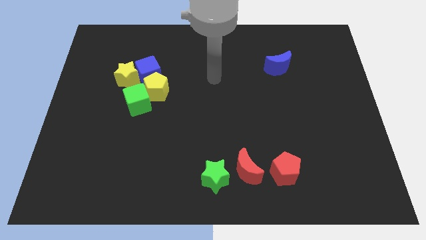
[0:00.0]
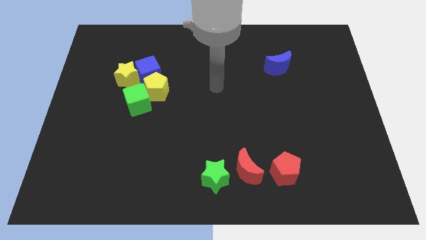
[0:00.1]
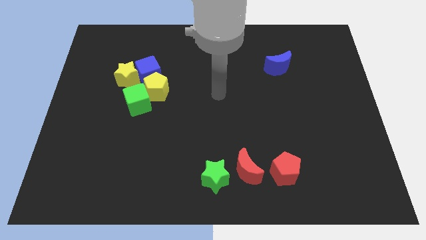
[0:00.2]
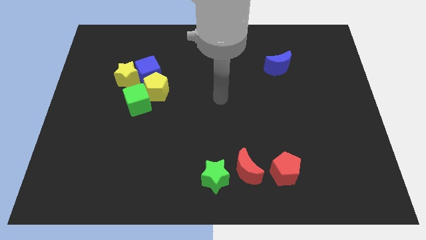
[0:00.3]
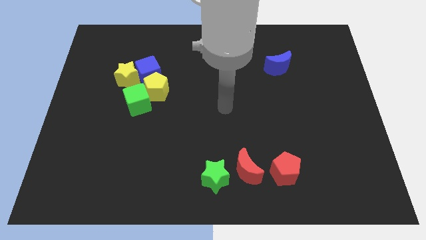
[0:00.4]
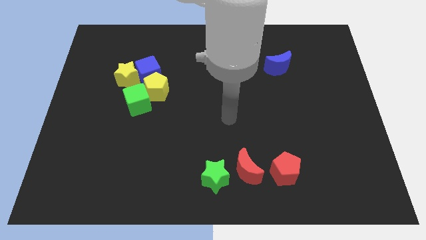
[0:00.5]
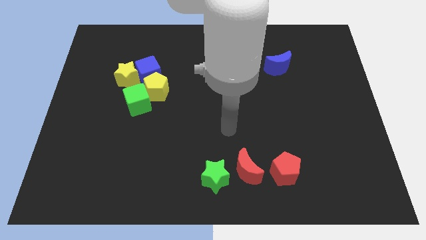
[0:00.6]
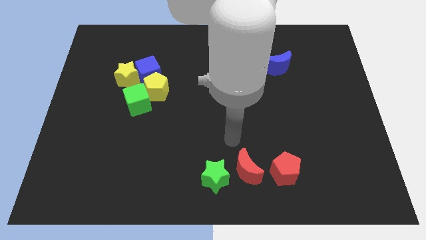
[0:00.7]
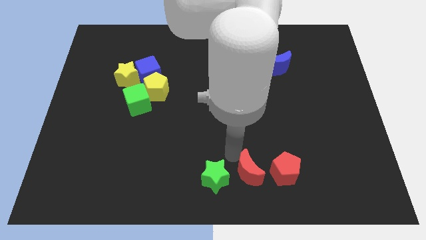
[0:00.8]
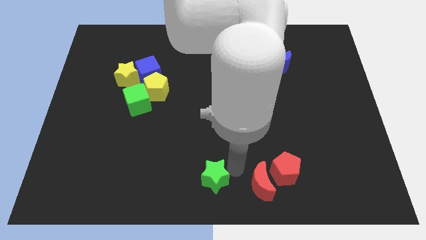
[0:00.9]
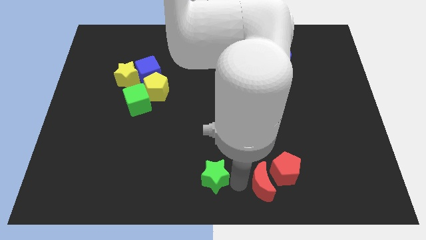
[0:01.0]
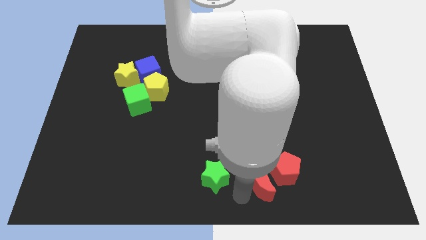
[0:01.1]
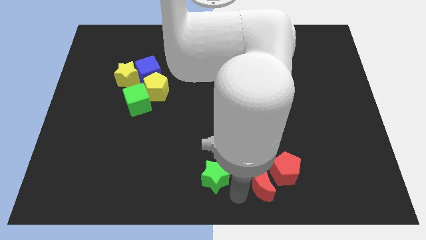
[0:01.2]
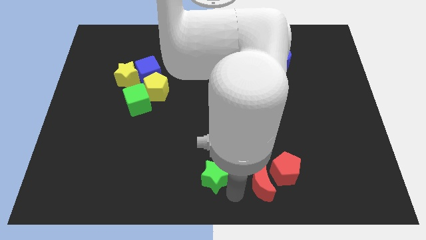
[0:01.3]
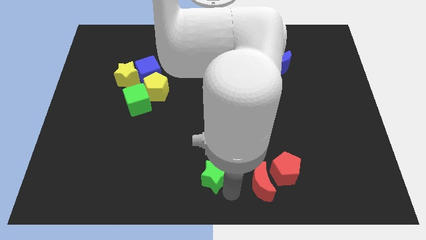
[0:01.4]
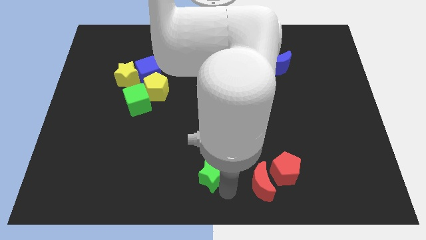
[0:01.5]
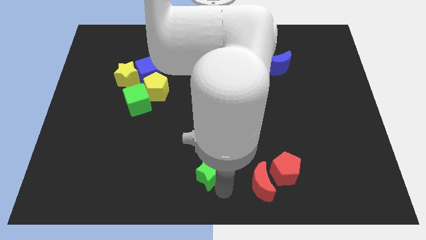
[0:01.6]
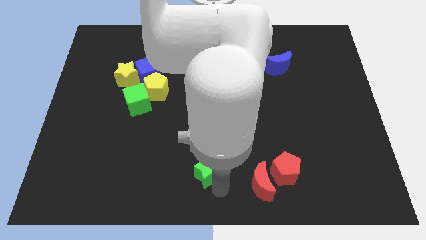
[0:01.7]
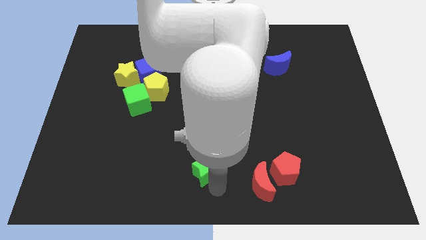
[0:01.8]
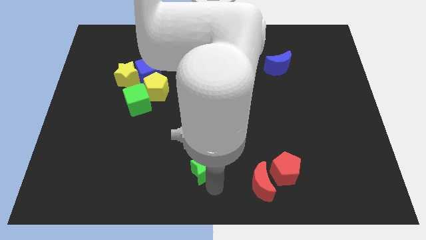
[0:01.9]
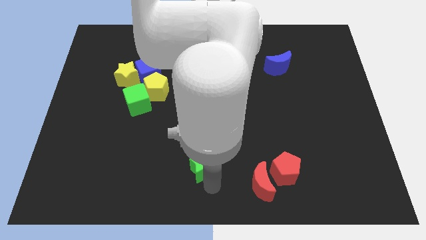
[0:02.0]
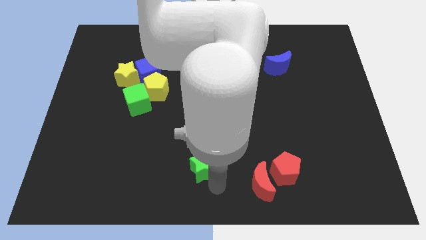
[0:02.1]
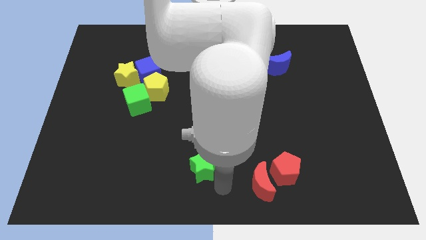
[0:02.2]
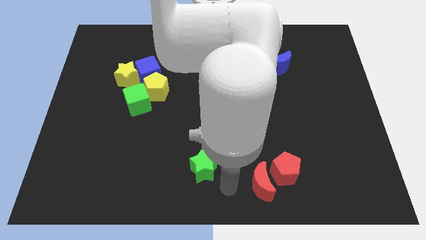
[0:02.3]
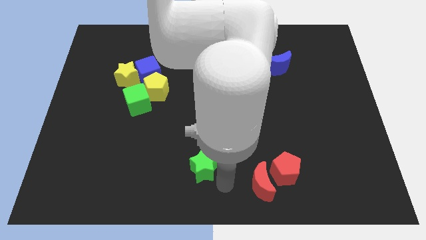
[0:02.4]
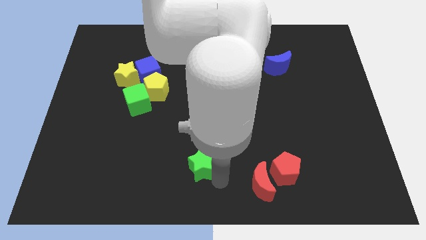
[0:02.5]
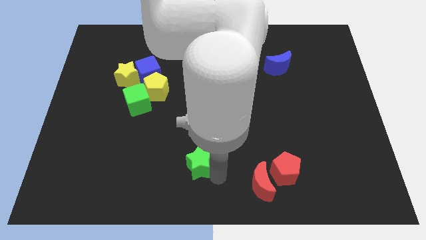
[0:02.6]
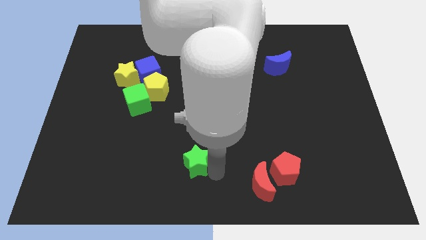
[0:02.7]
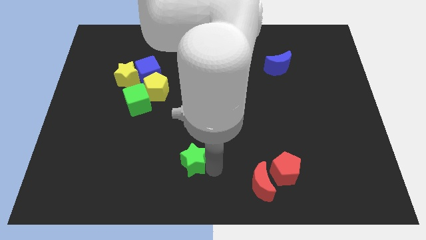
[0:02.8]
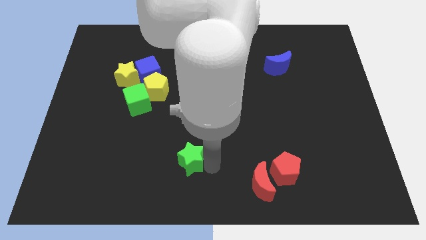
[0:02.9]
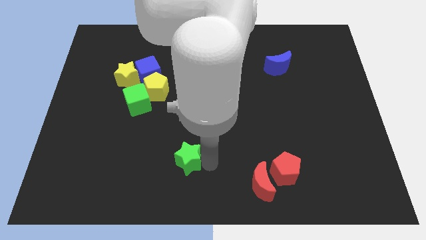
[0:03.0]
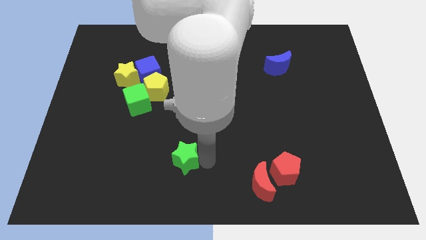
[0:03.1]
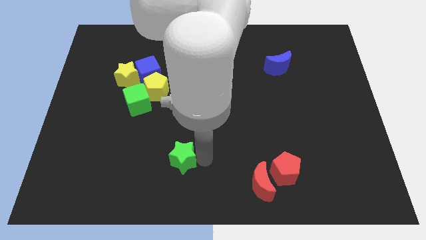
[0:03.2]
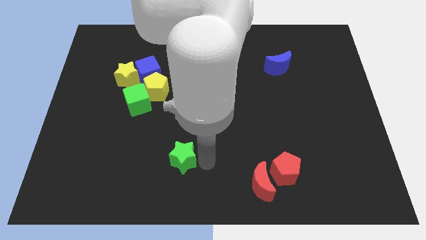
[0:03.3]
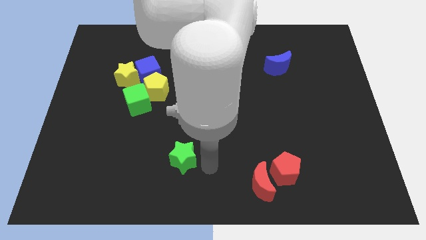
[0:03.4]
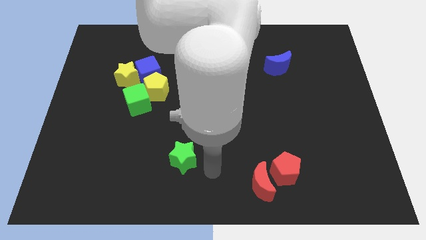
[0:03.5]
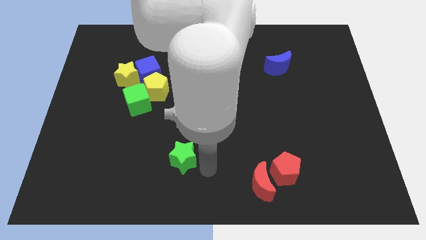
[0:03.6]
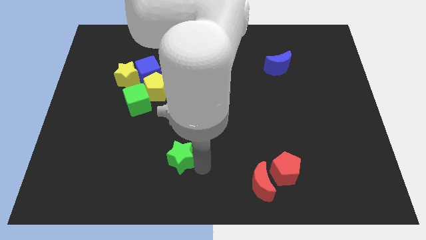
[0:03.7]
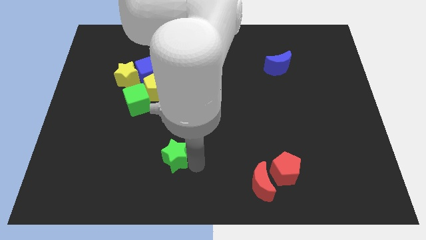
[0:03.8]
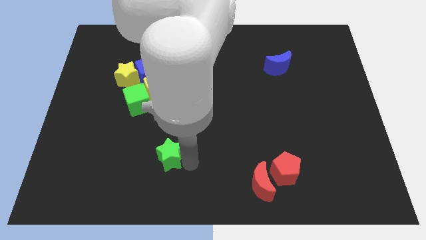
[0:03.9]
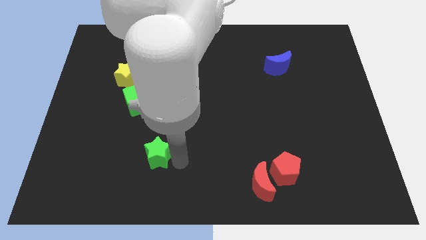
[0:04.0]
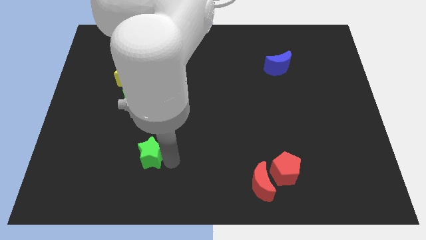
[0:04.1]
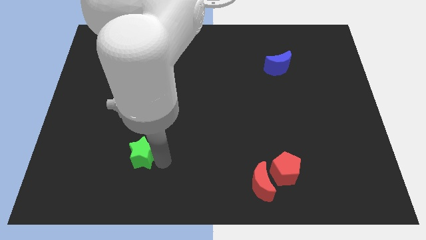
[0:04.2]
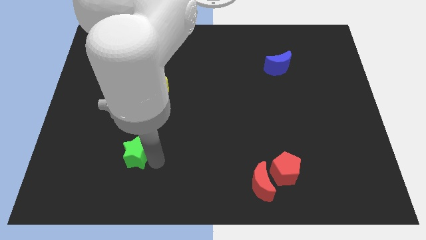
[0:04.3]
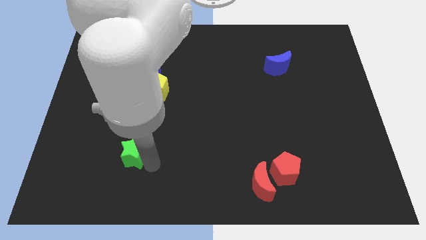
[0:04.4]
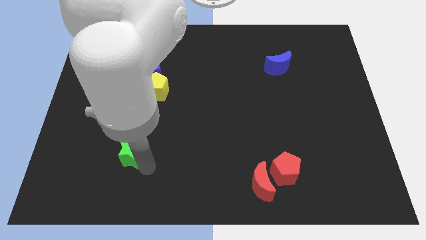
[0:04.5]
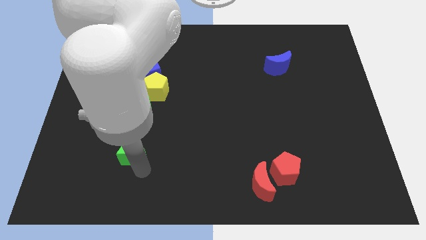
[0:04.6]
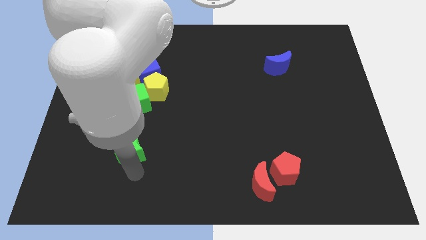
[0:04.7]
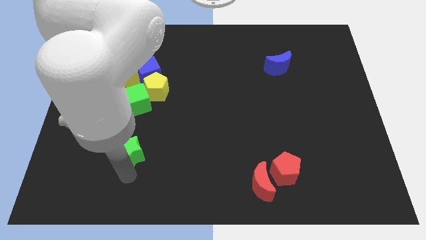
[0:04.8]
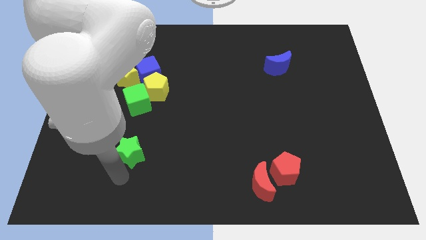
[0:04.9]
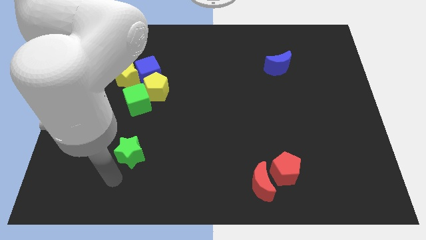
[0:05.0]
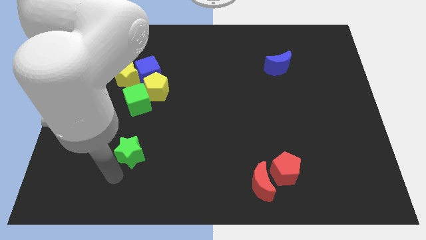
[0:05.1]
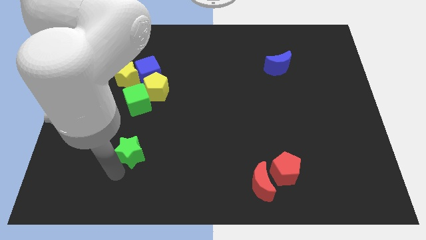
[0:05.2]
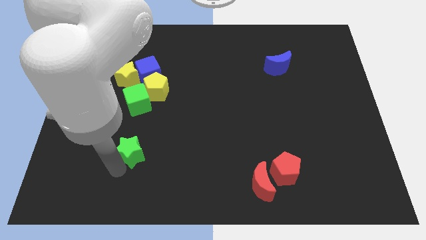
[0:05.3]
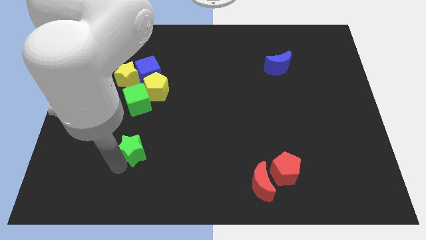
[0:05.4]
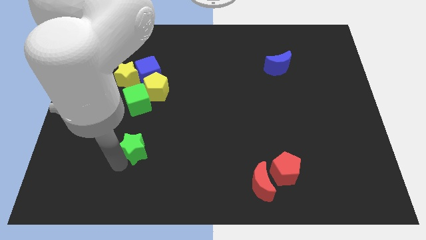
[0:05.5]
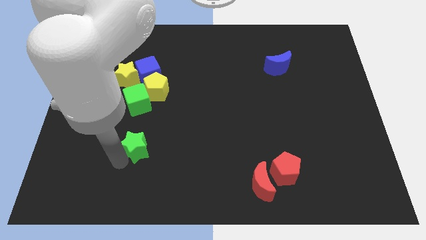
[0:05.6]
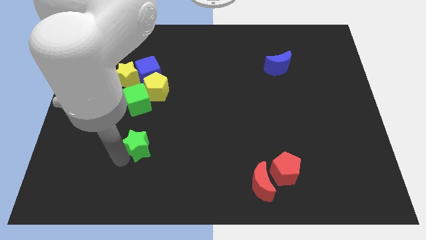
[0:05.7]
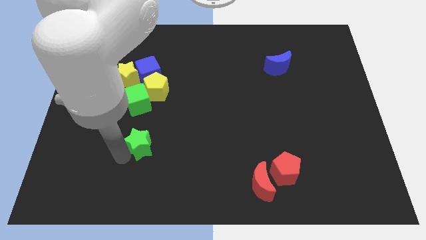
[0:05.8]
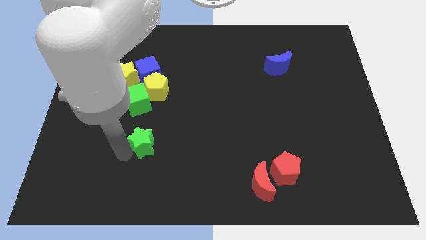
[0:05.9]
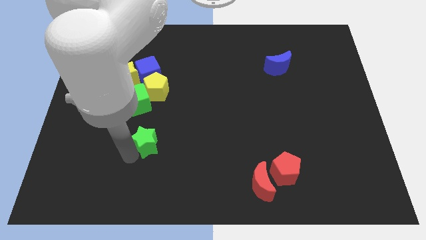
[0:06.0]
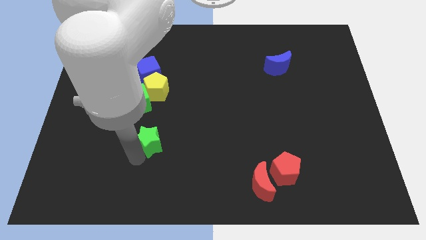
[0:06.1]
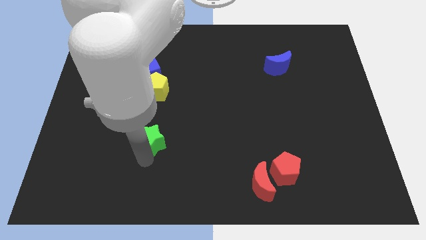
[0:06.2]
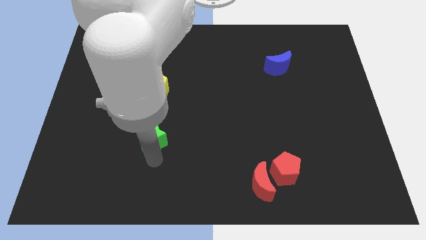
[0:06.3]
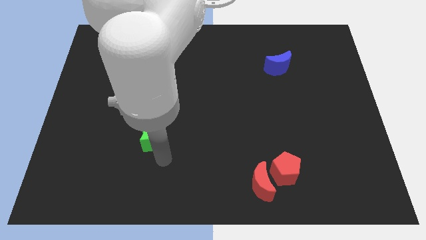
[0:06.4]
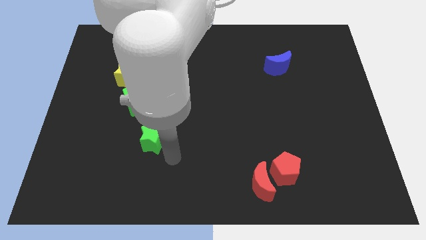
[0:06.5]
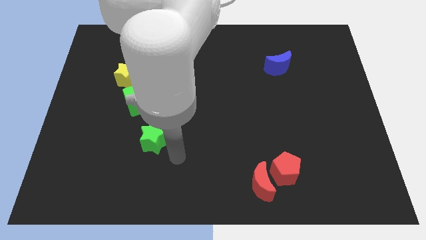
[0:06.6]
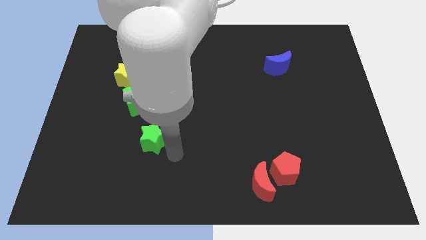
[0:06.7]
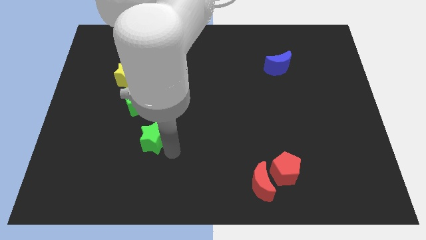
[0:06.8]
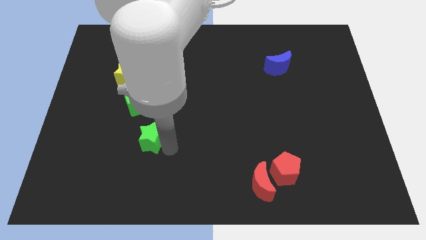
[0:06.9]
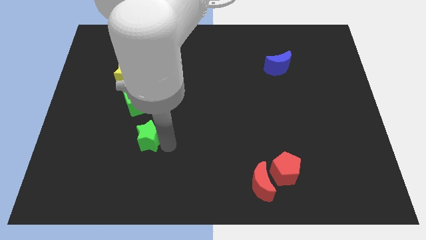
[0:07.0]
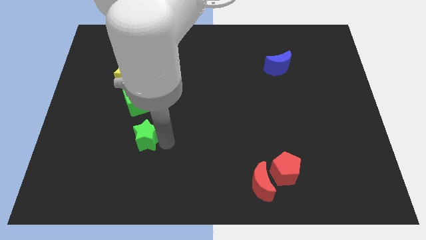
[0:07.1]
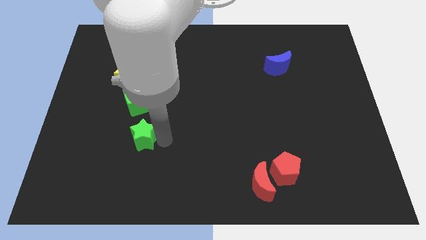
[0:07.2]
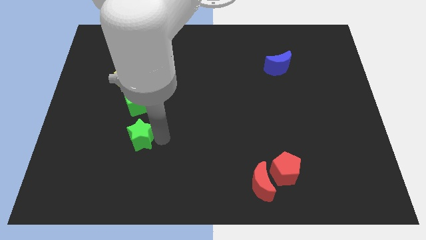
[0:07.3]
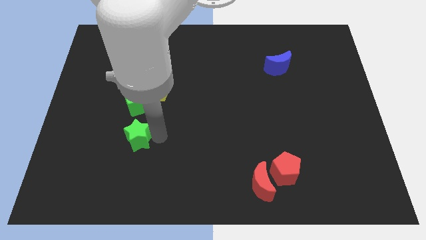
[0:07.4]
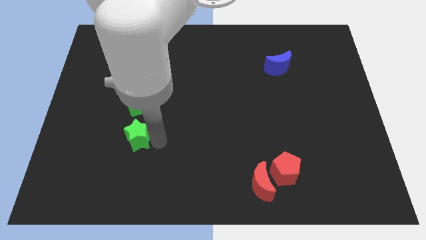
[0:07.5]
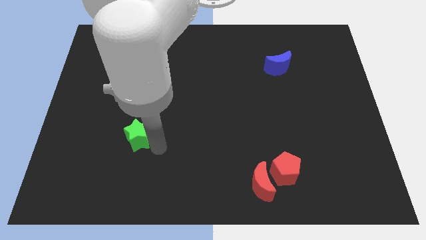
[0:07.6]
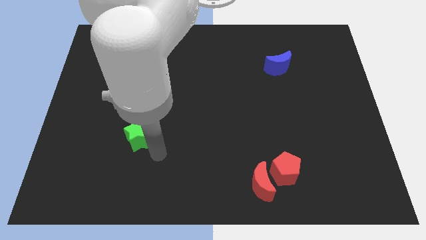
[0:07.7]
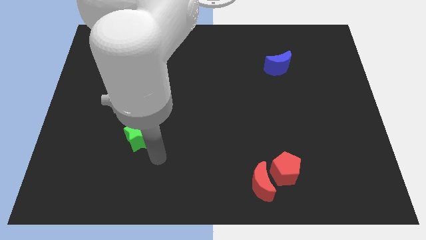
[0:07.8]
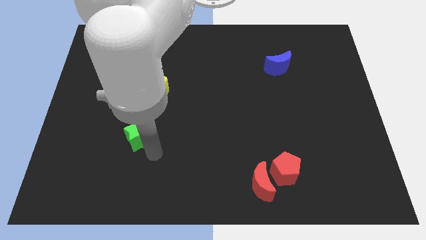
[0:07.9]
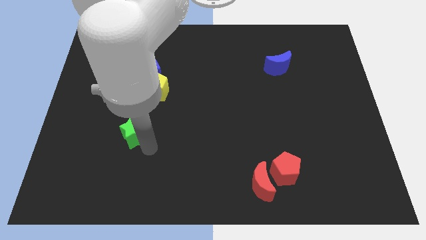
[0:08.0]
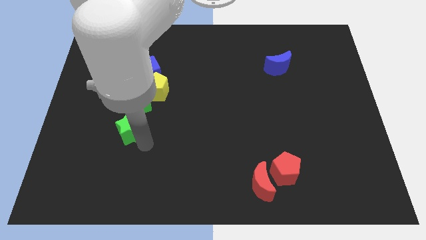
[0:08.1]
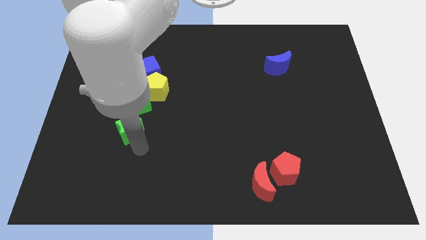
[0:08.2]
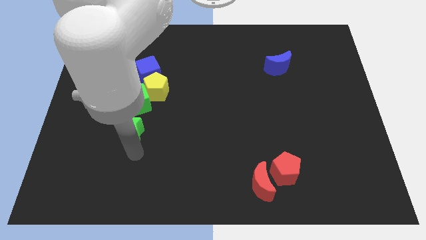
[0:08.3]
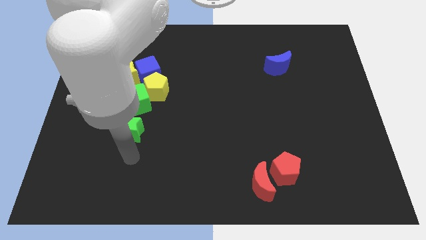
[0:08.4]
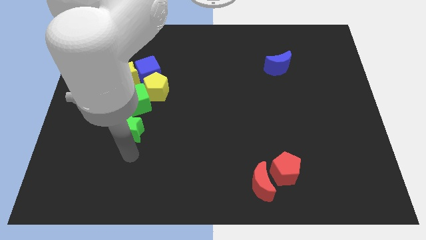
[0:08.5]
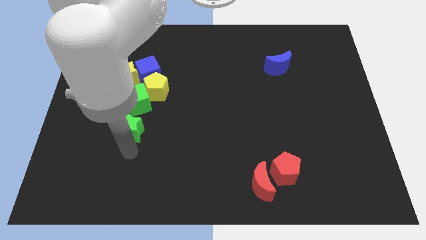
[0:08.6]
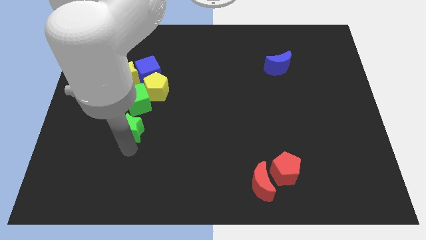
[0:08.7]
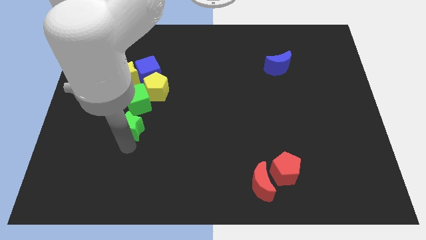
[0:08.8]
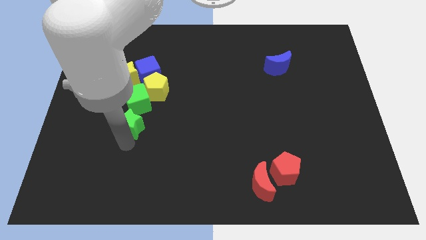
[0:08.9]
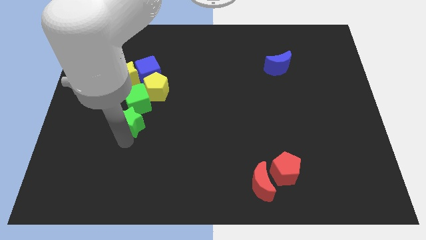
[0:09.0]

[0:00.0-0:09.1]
slide the green star to the bottom left of the yellow pentagon
